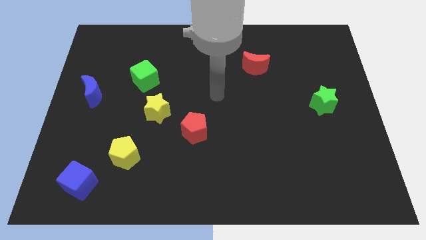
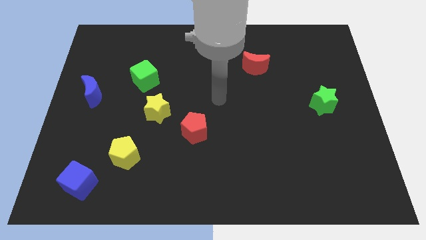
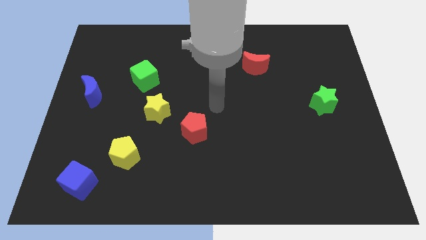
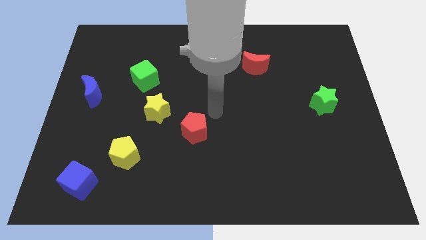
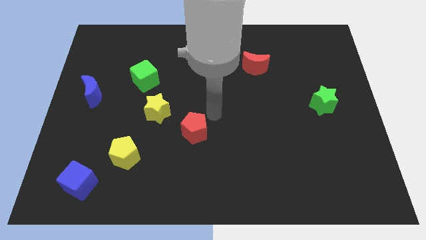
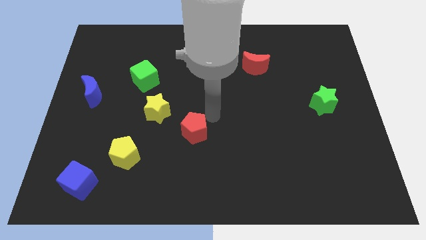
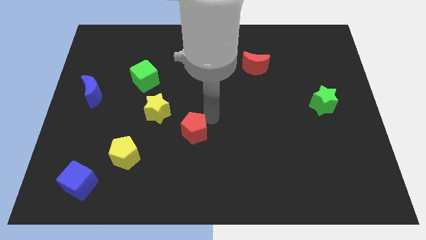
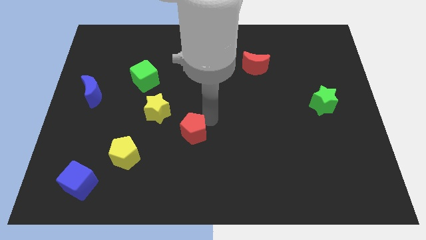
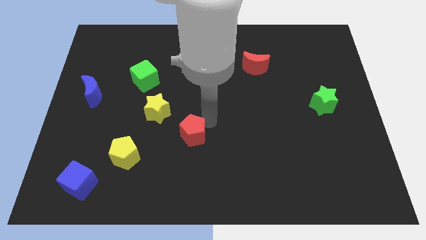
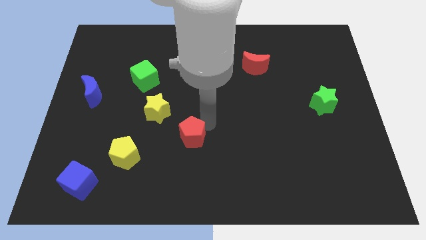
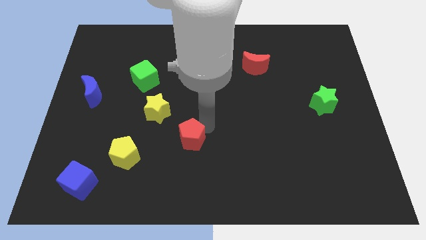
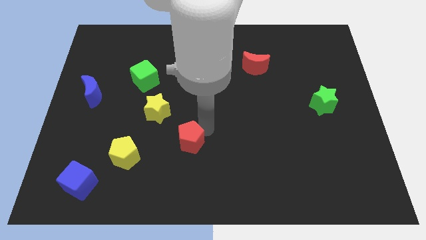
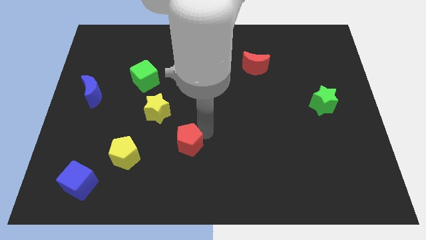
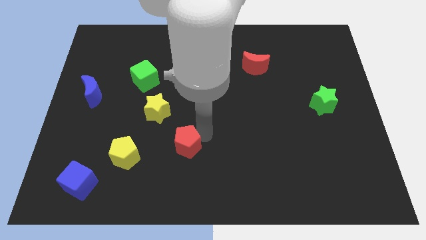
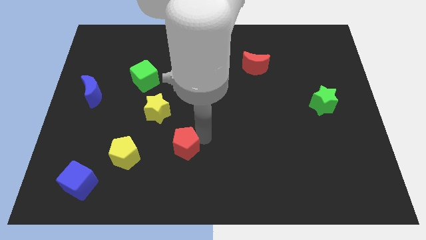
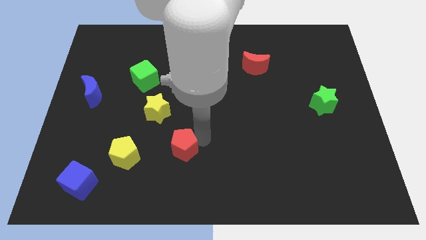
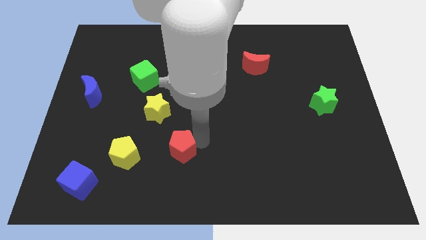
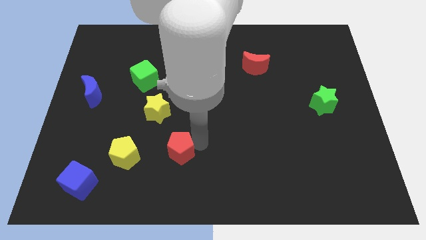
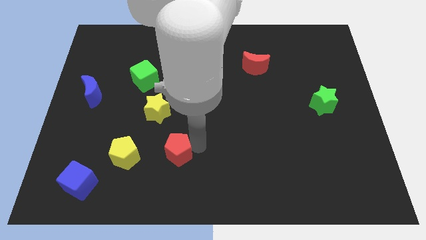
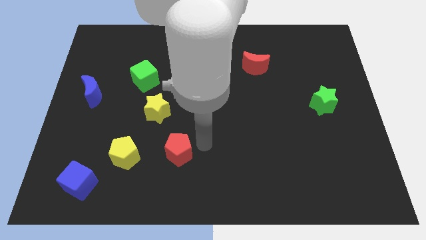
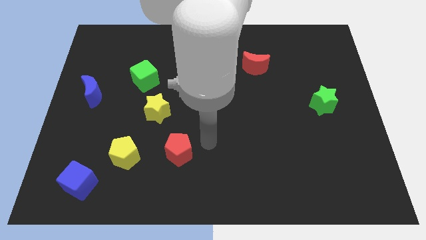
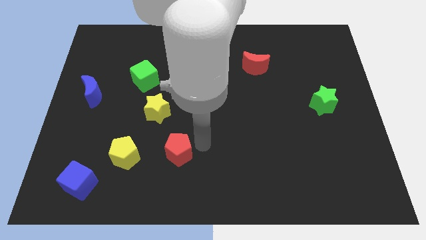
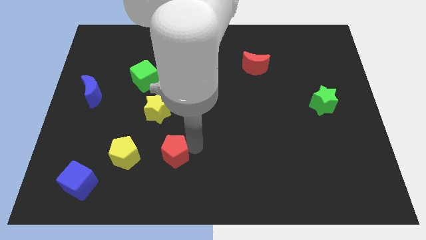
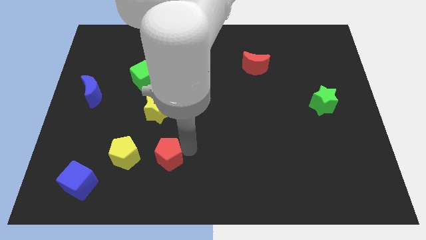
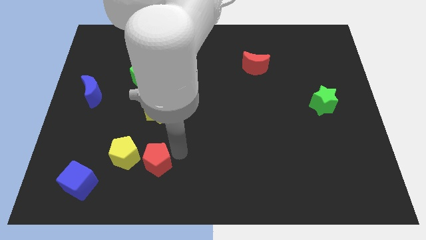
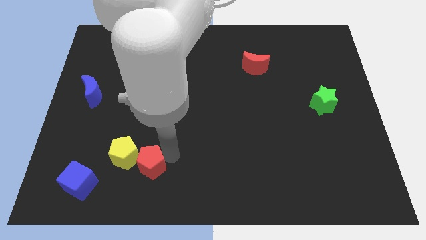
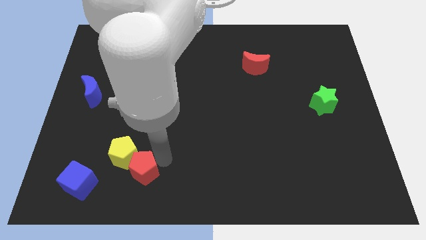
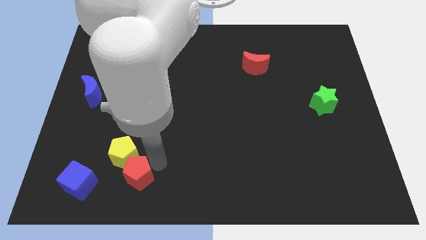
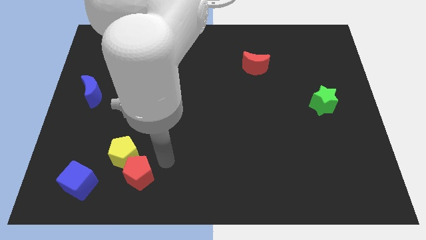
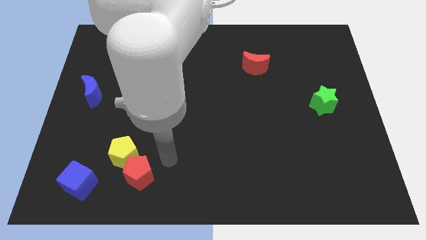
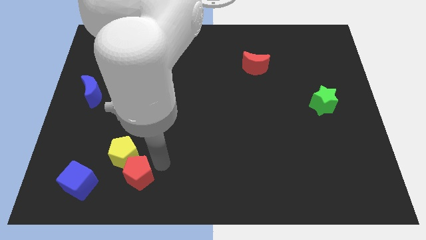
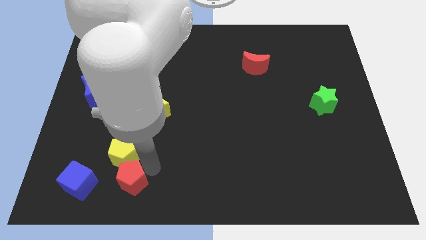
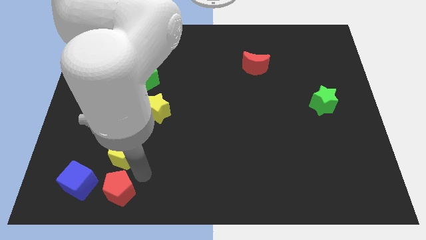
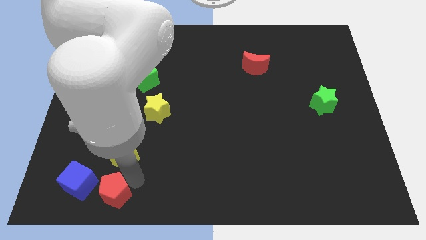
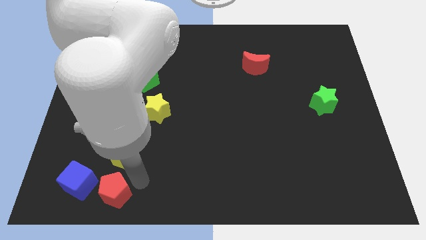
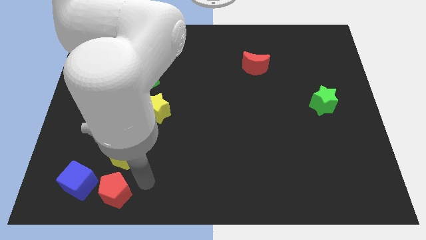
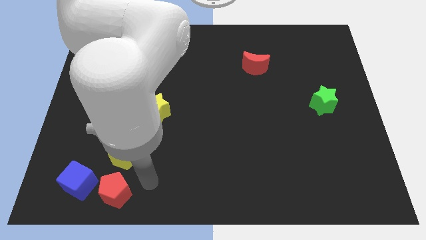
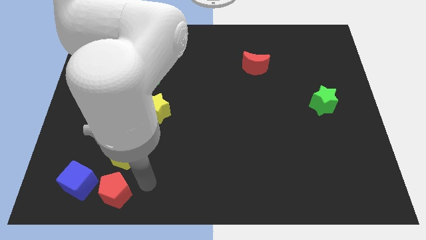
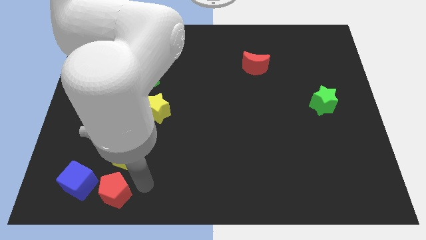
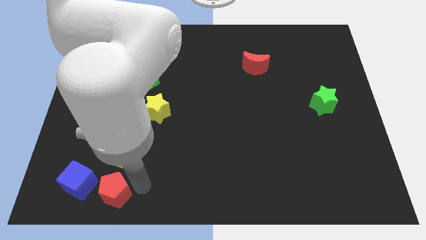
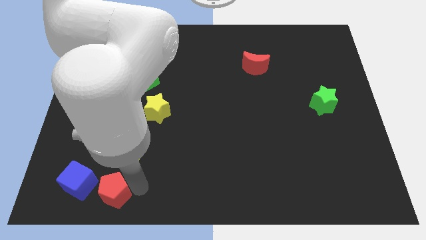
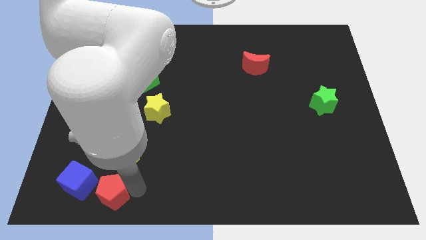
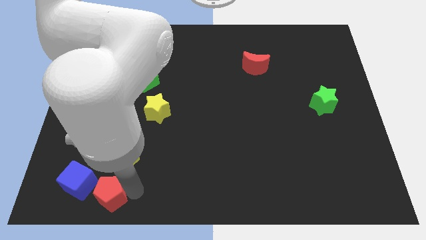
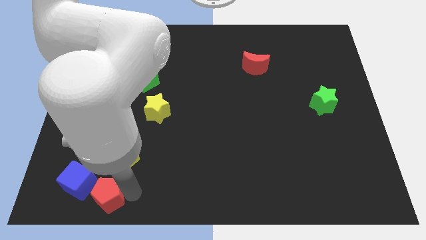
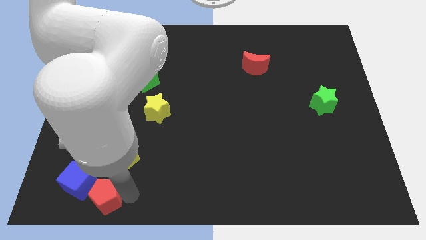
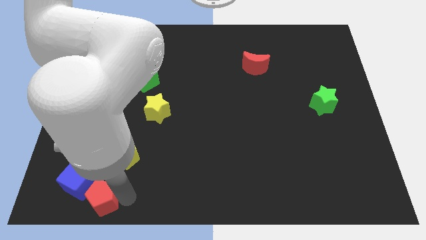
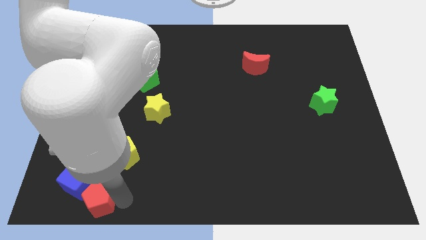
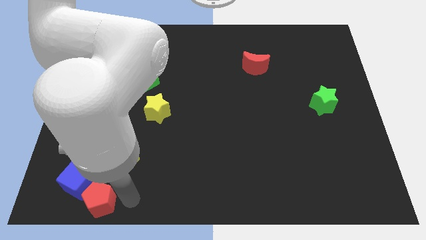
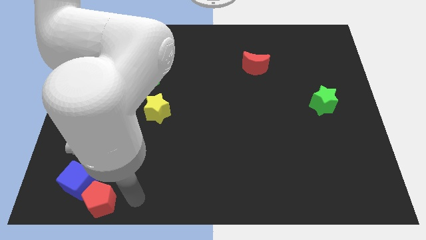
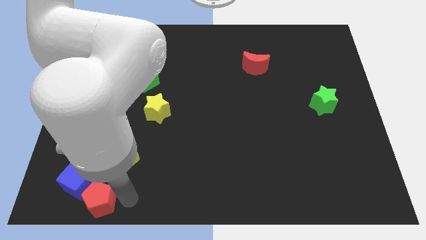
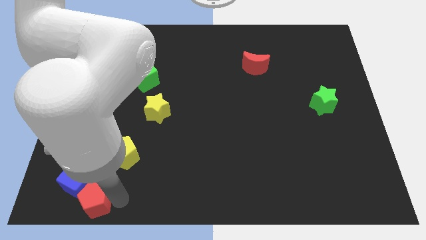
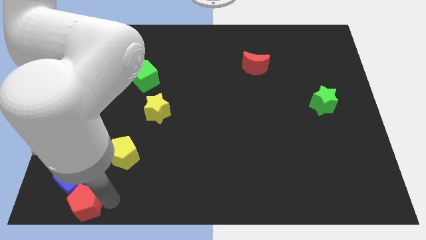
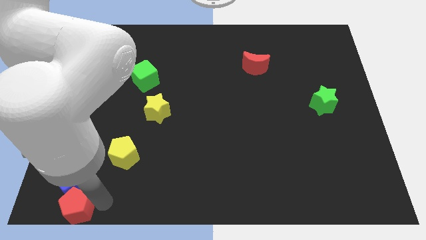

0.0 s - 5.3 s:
push the red pentagon to the bottom left

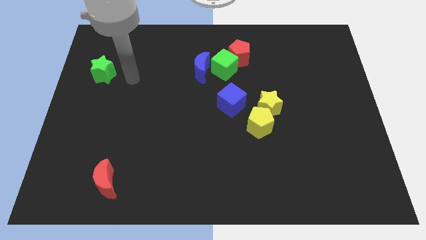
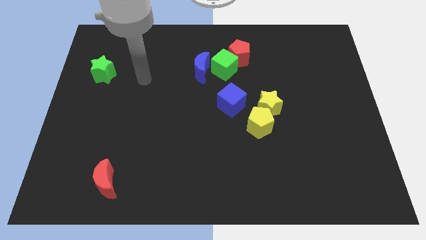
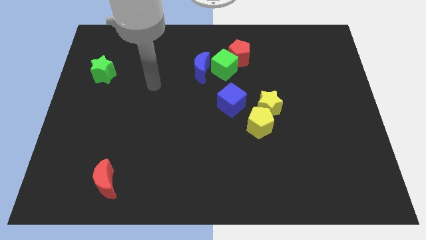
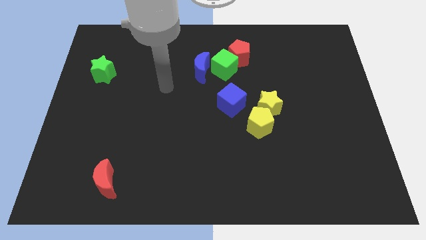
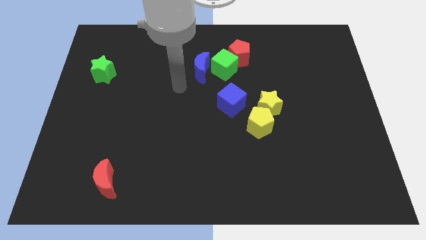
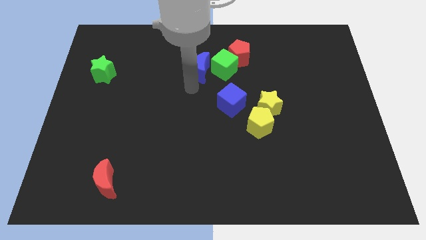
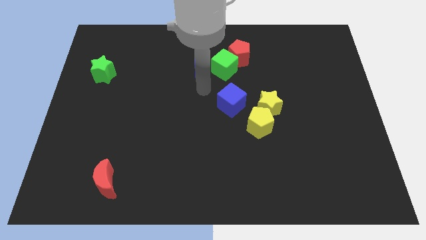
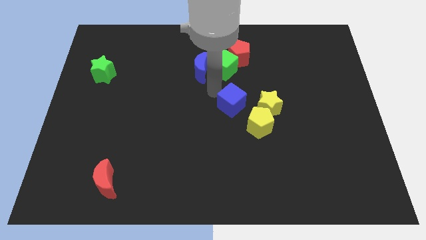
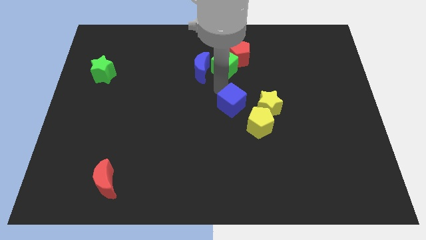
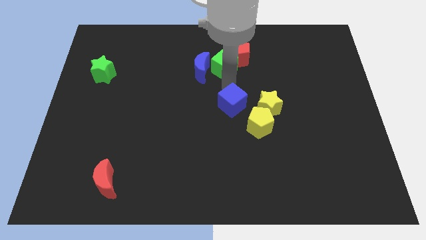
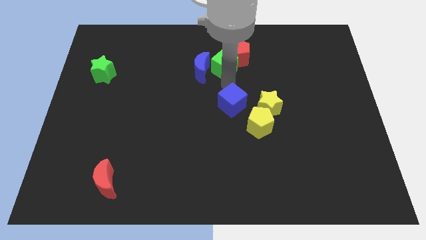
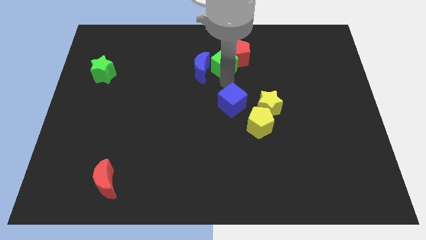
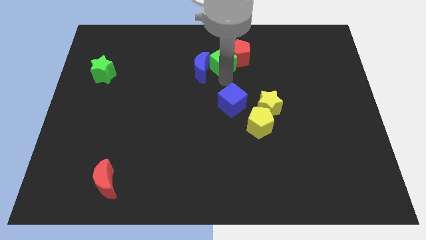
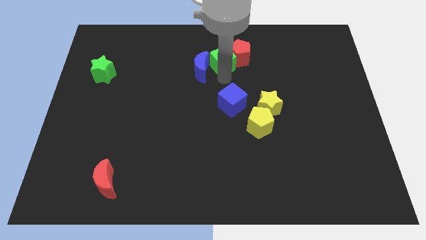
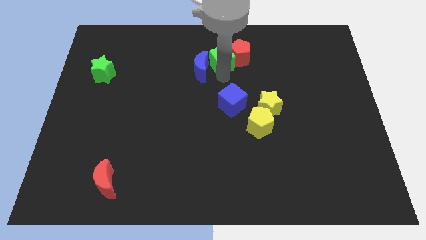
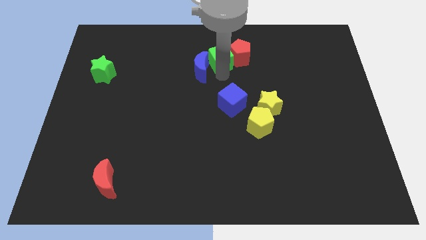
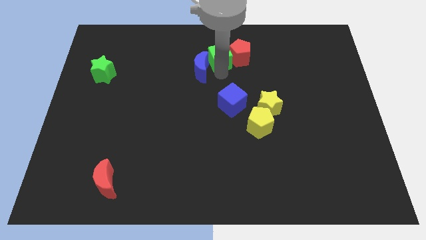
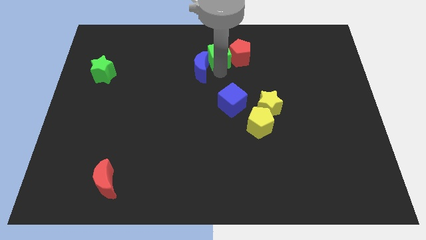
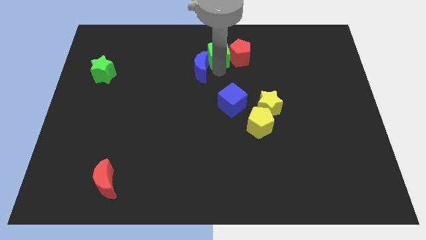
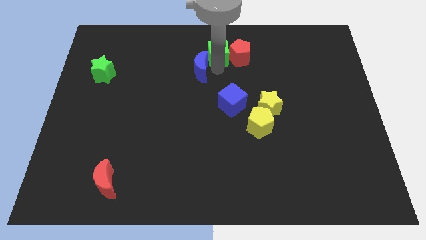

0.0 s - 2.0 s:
move the green cube to the top
